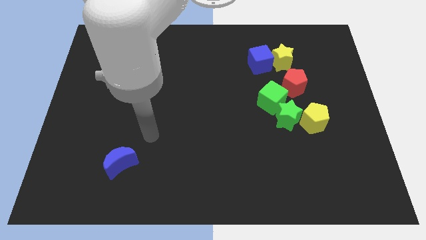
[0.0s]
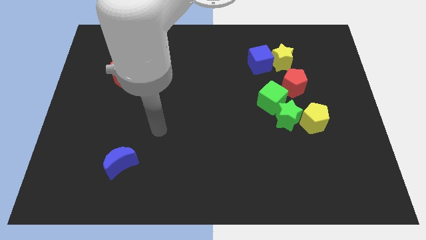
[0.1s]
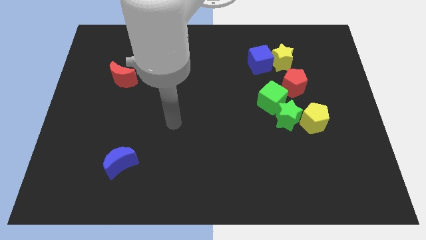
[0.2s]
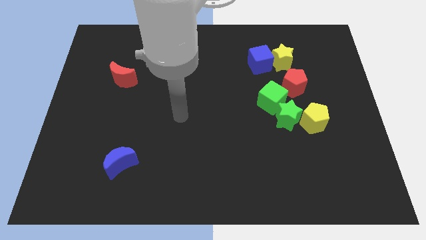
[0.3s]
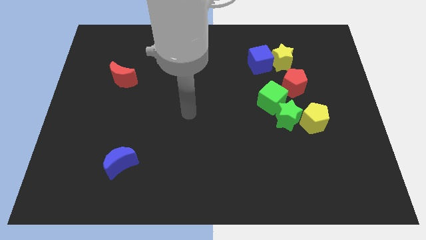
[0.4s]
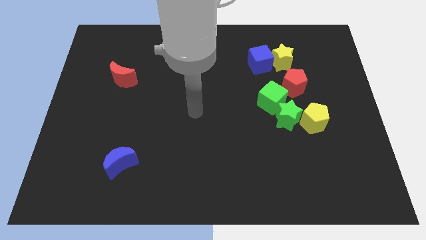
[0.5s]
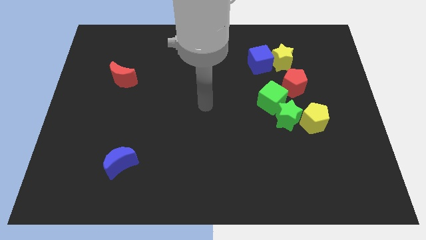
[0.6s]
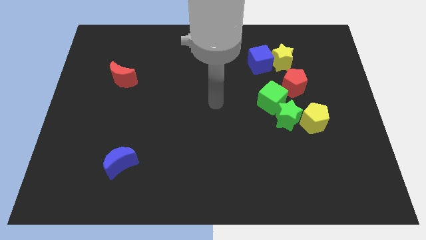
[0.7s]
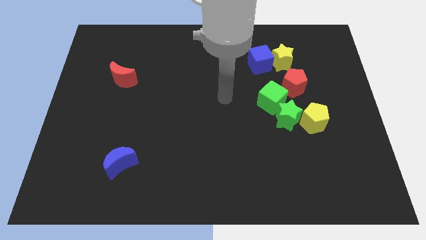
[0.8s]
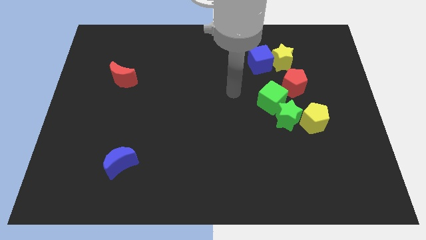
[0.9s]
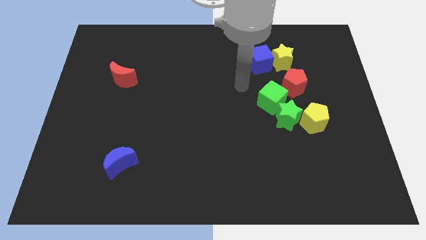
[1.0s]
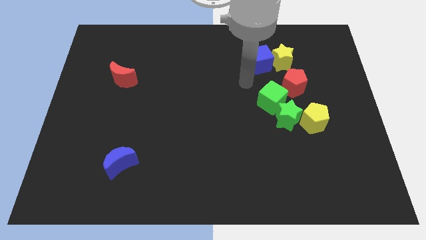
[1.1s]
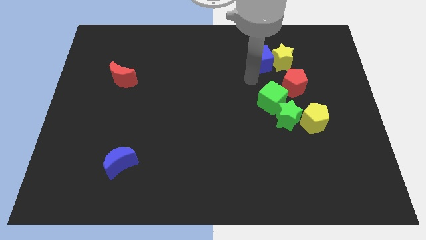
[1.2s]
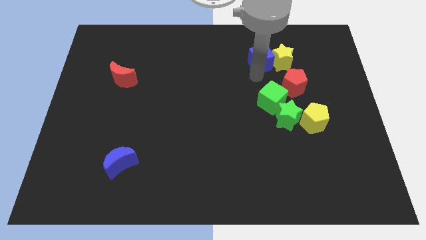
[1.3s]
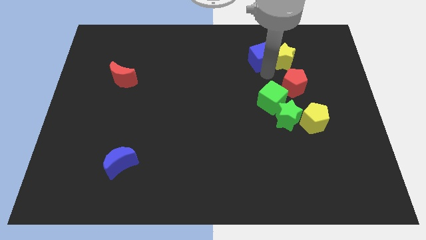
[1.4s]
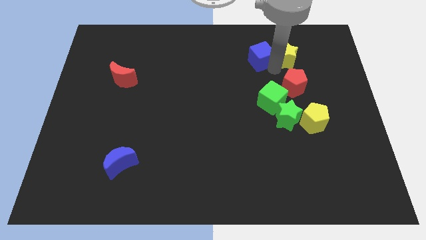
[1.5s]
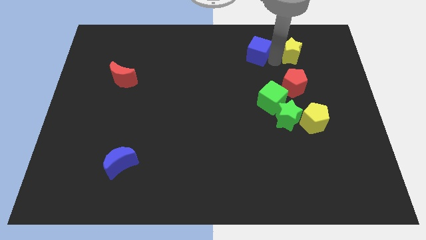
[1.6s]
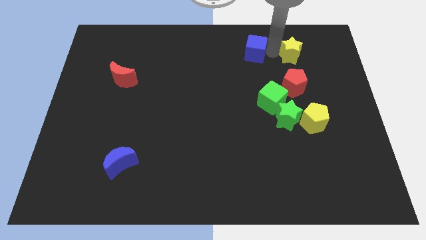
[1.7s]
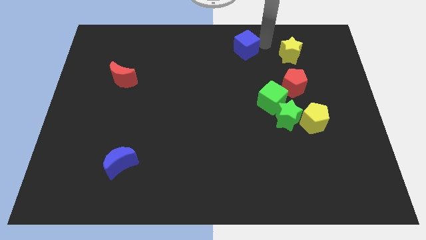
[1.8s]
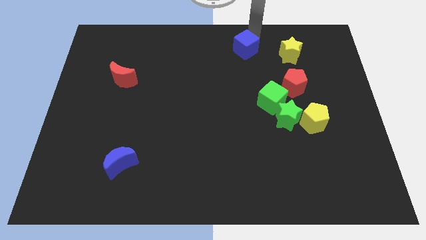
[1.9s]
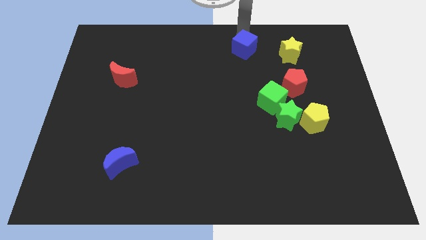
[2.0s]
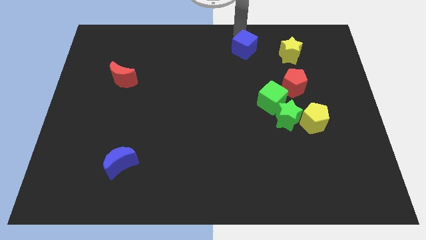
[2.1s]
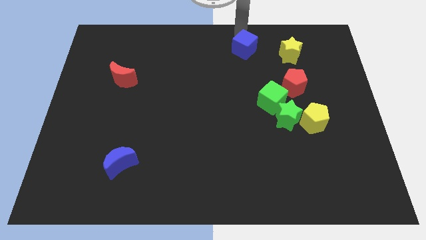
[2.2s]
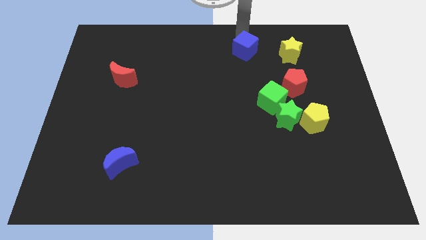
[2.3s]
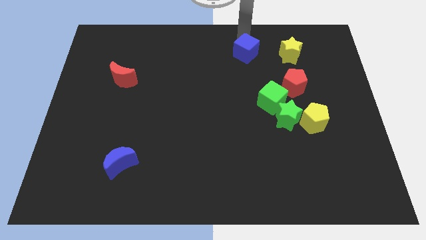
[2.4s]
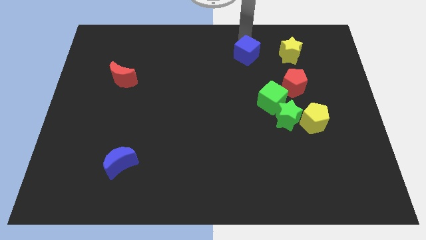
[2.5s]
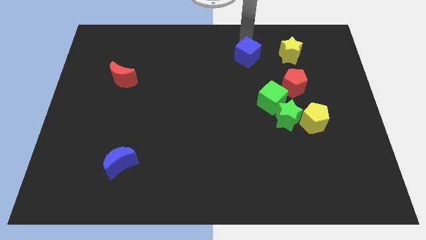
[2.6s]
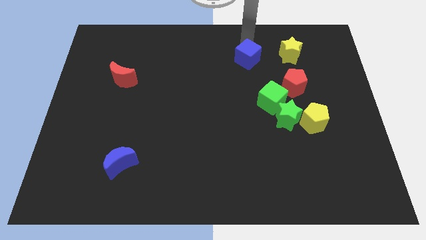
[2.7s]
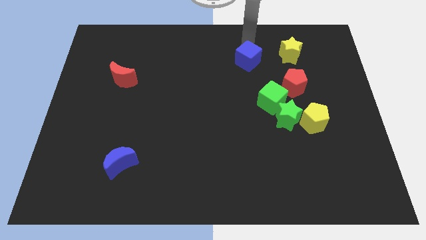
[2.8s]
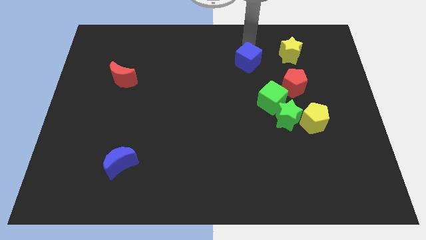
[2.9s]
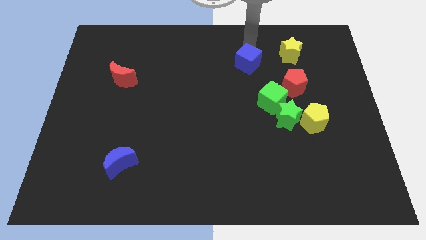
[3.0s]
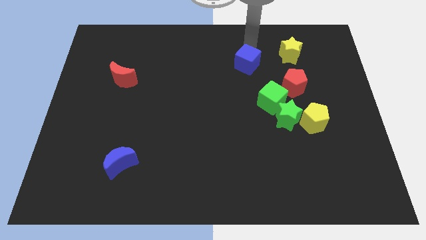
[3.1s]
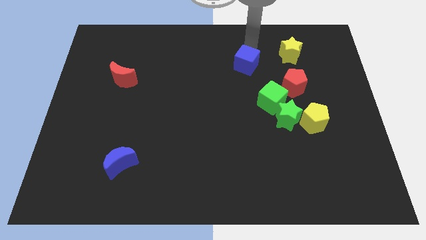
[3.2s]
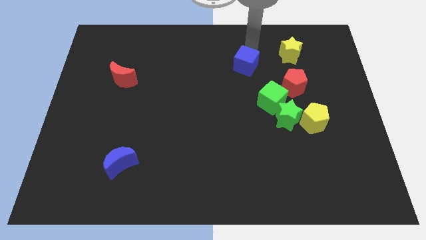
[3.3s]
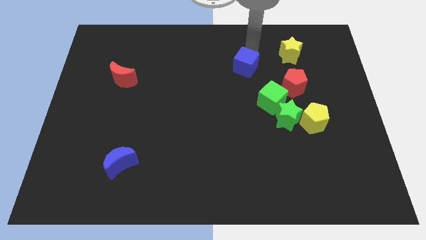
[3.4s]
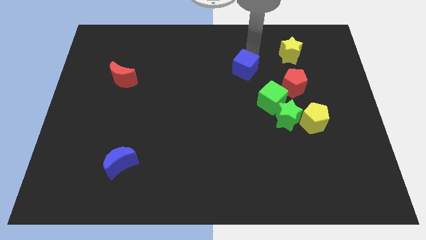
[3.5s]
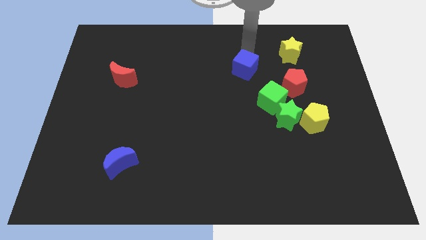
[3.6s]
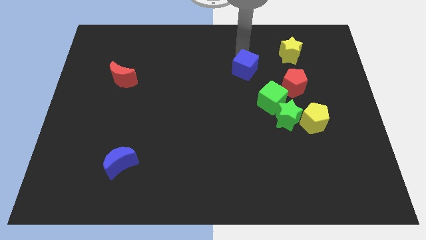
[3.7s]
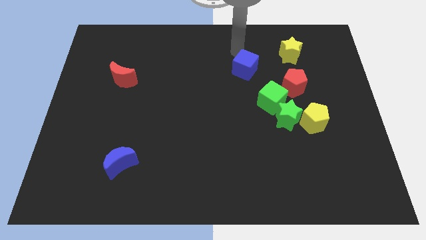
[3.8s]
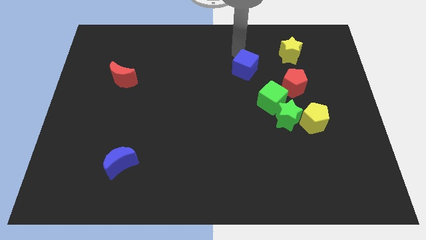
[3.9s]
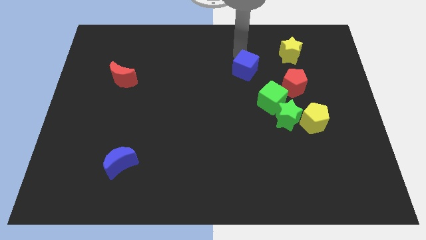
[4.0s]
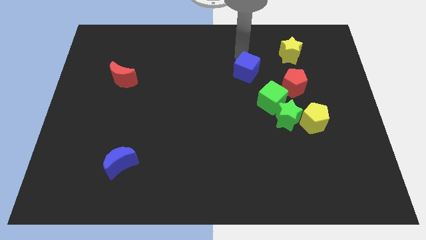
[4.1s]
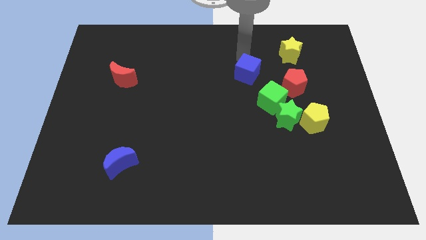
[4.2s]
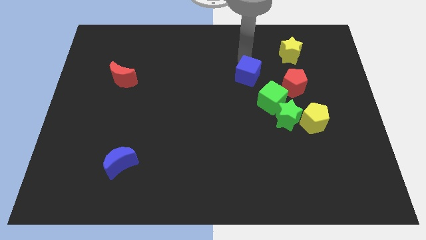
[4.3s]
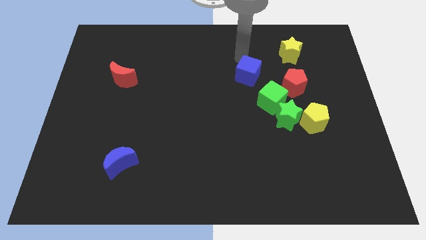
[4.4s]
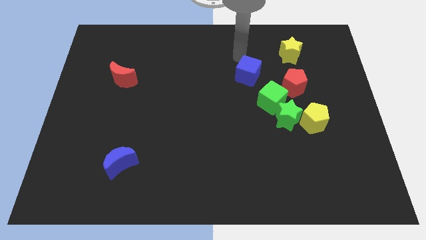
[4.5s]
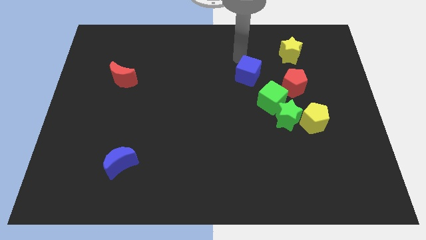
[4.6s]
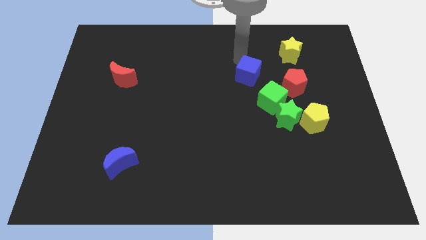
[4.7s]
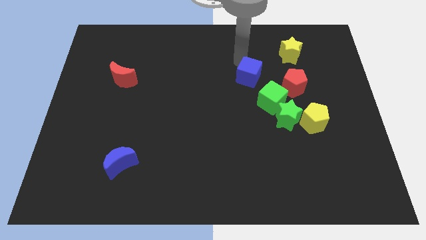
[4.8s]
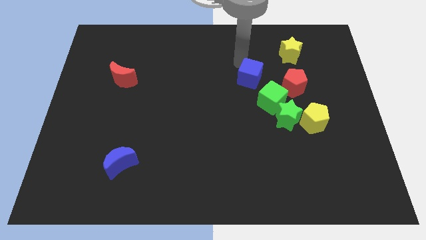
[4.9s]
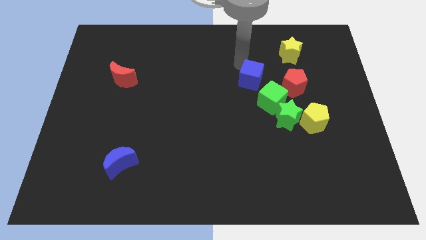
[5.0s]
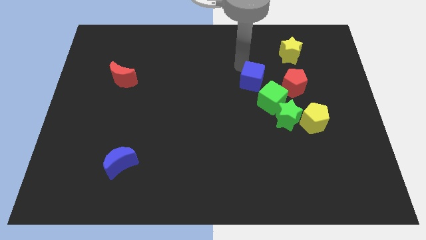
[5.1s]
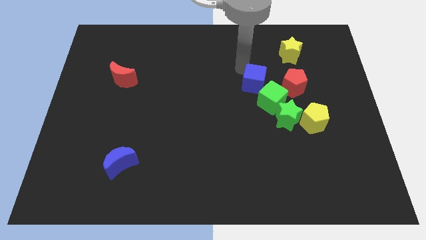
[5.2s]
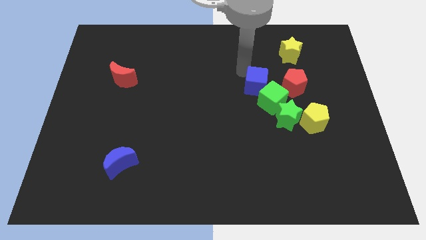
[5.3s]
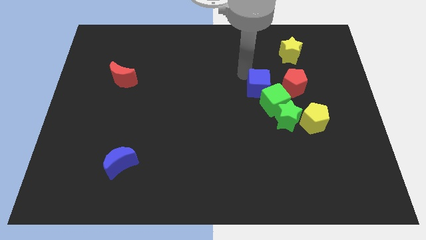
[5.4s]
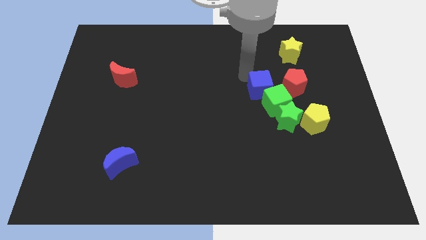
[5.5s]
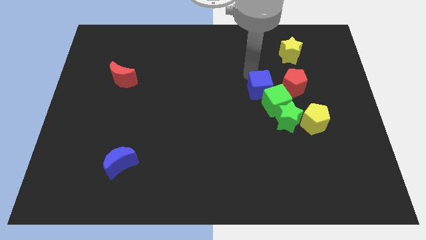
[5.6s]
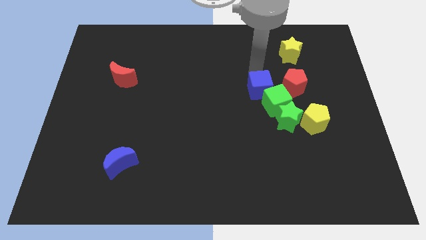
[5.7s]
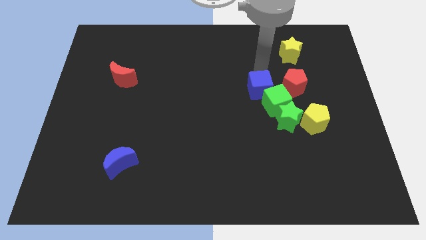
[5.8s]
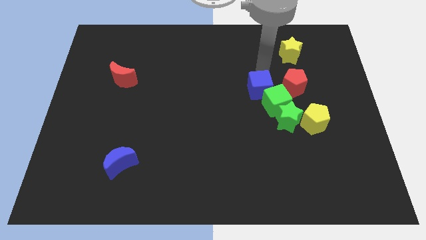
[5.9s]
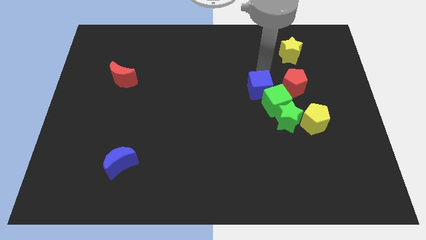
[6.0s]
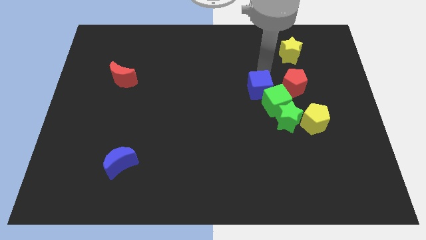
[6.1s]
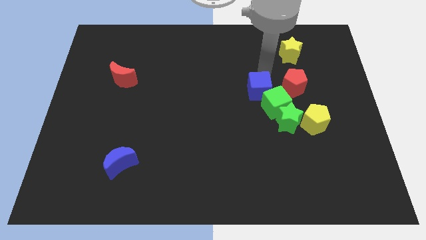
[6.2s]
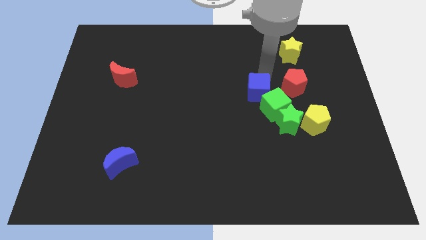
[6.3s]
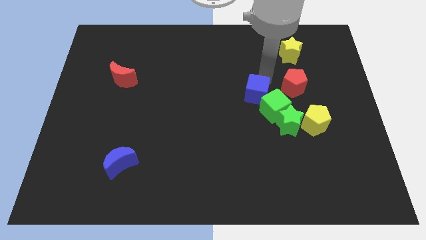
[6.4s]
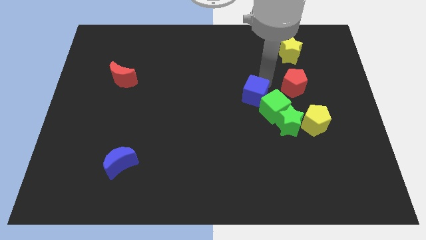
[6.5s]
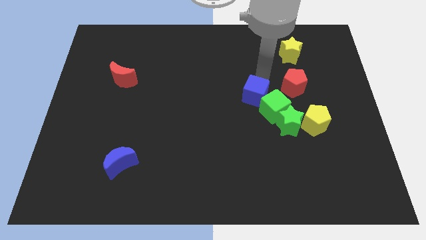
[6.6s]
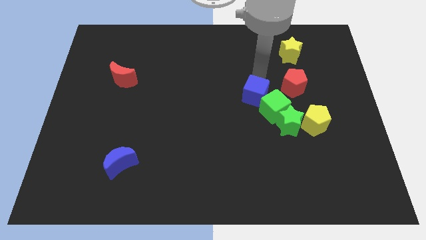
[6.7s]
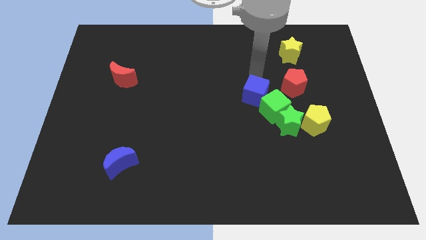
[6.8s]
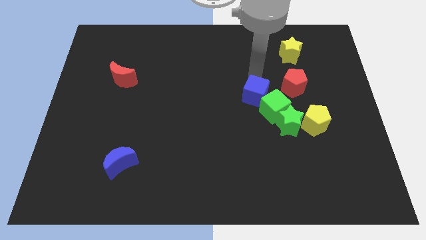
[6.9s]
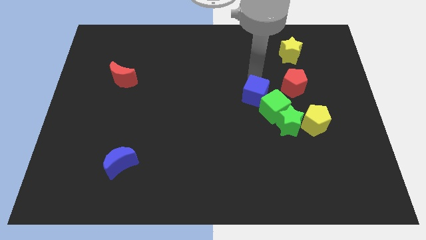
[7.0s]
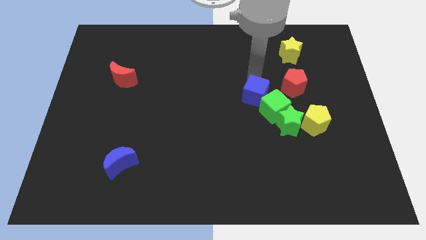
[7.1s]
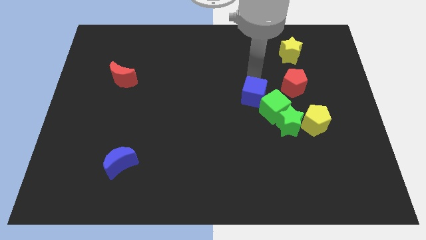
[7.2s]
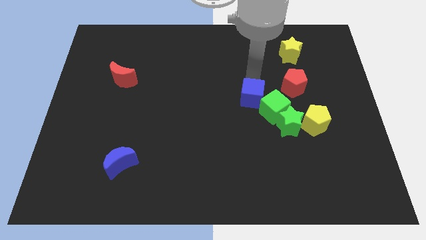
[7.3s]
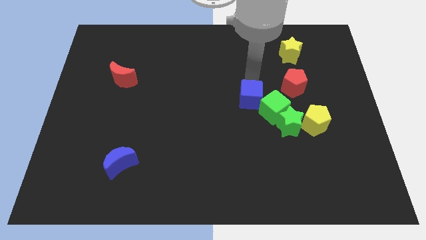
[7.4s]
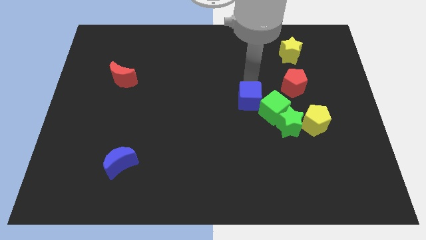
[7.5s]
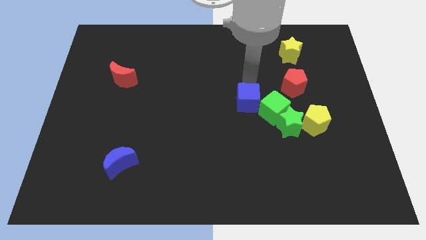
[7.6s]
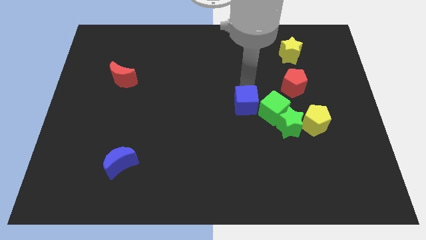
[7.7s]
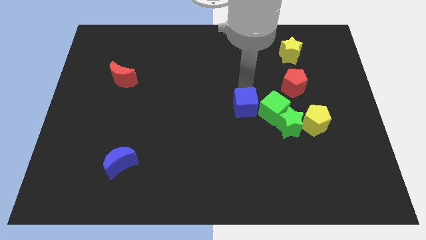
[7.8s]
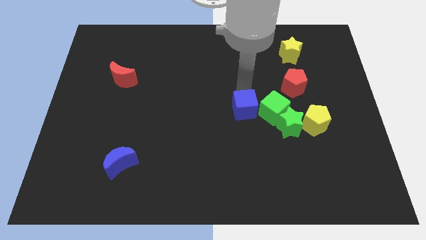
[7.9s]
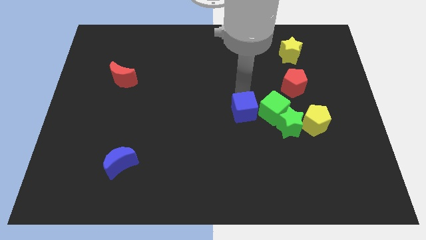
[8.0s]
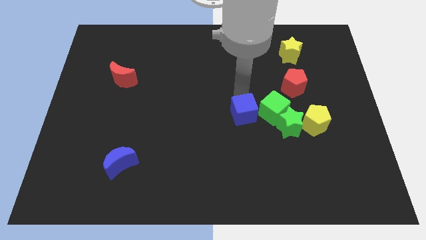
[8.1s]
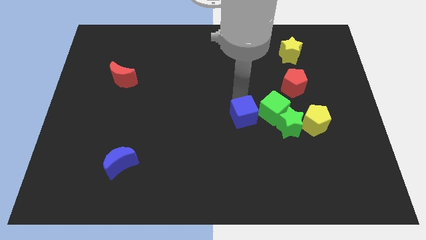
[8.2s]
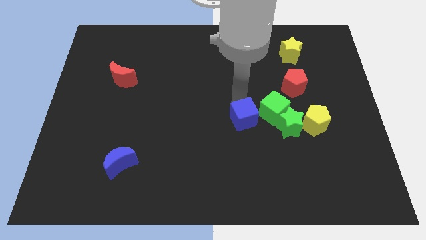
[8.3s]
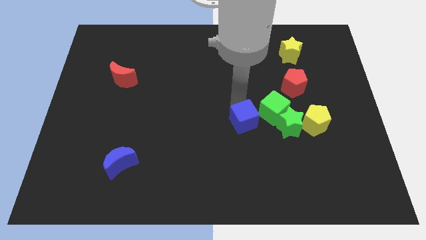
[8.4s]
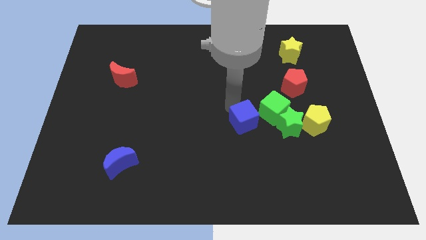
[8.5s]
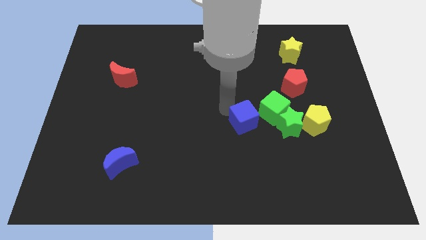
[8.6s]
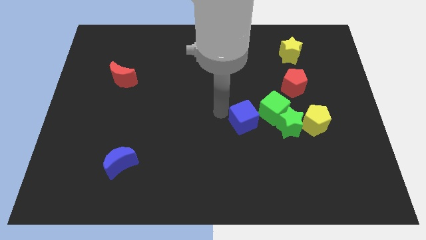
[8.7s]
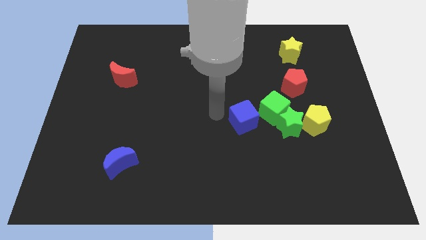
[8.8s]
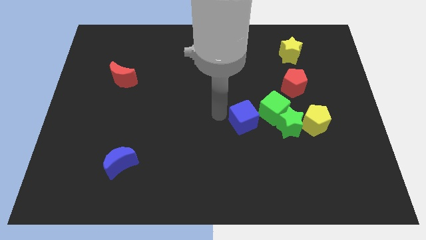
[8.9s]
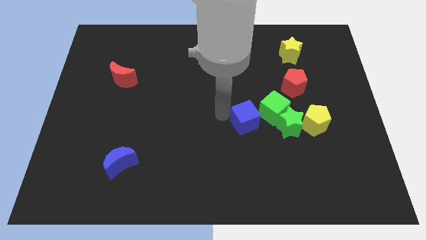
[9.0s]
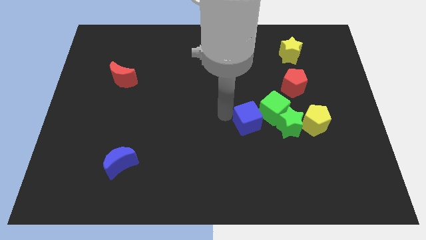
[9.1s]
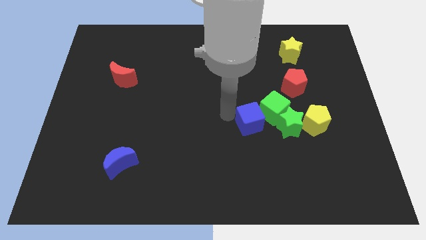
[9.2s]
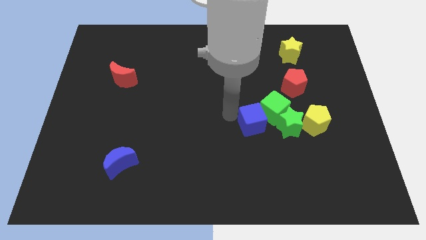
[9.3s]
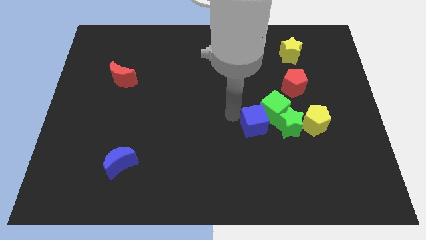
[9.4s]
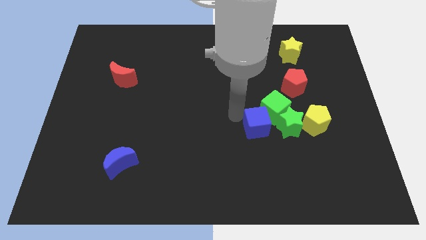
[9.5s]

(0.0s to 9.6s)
move the blue cube downwards
